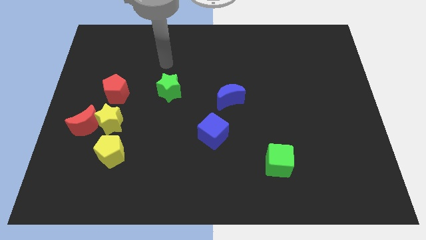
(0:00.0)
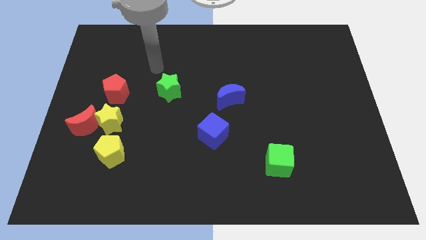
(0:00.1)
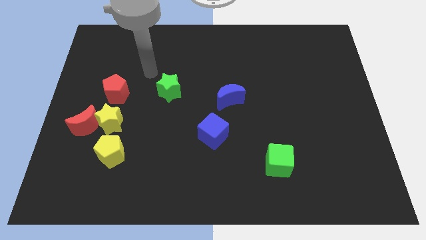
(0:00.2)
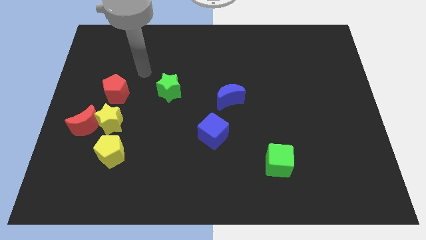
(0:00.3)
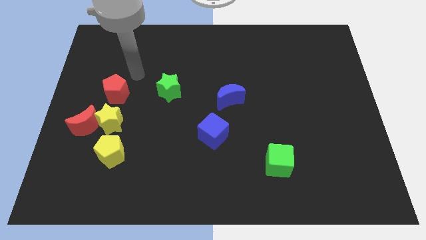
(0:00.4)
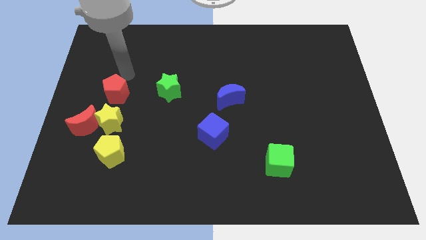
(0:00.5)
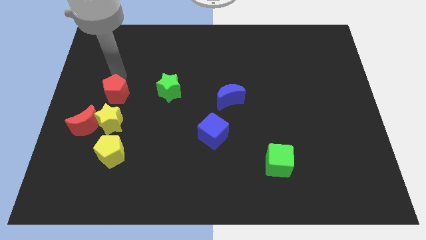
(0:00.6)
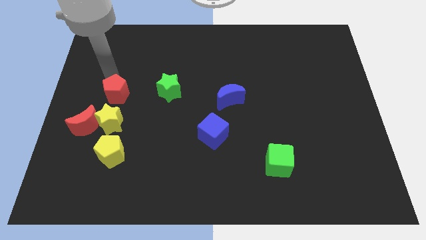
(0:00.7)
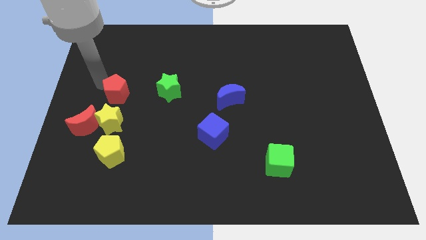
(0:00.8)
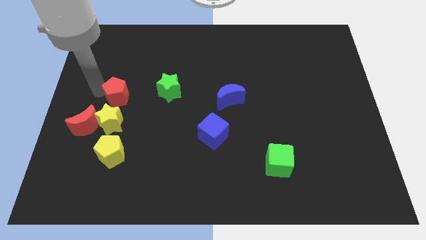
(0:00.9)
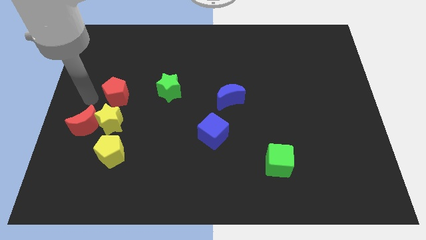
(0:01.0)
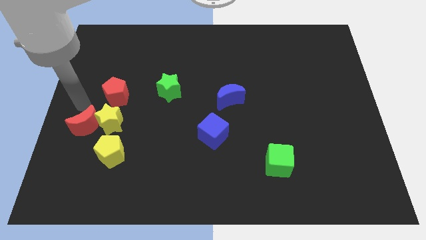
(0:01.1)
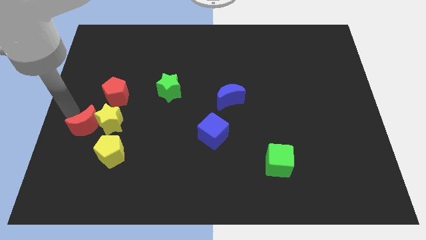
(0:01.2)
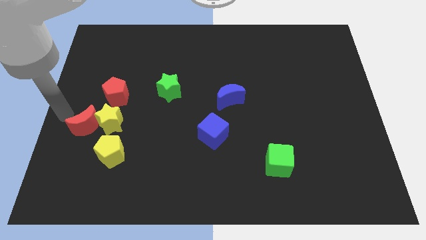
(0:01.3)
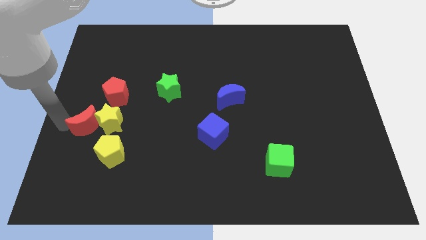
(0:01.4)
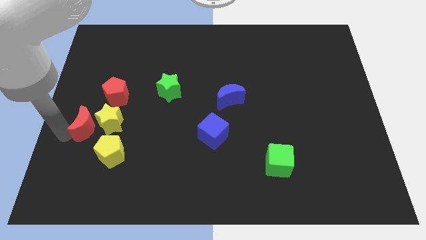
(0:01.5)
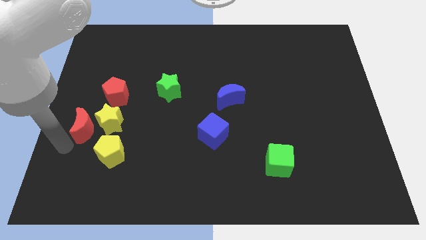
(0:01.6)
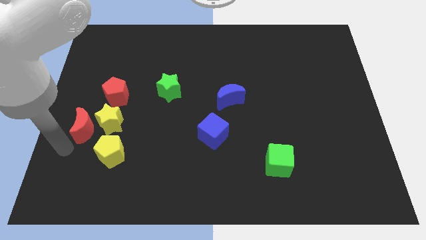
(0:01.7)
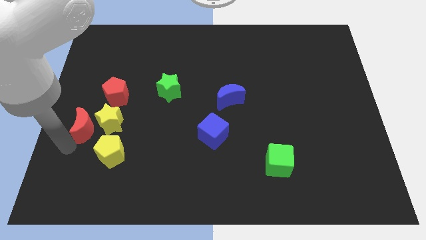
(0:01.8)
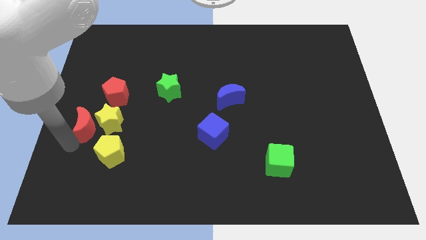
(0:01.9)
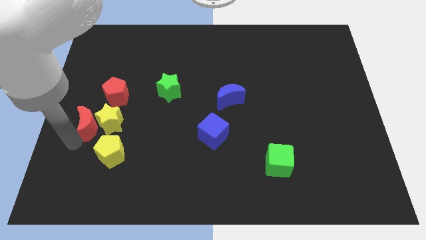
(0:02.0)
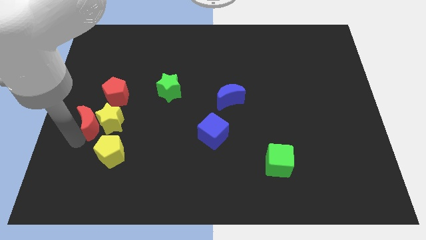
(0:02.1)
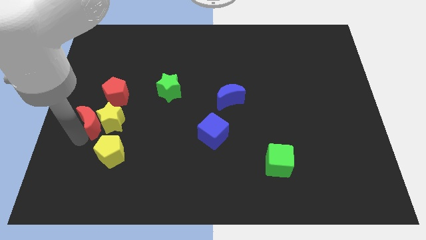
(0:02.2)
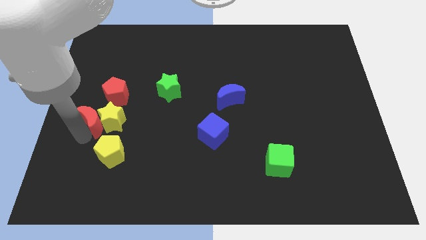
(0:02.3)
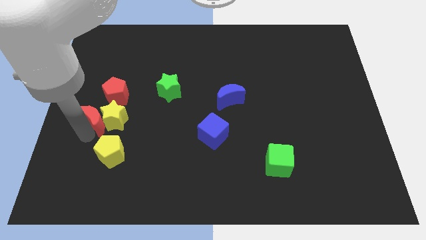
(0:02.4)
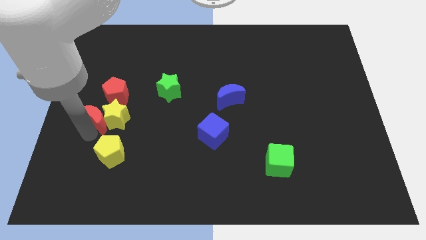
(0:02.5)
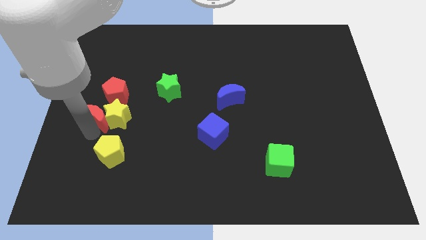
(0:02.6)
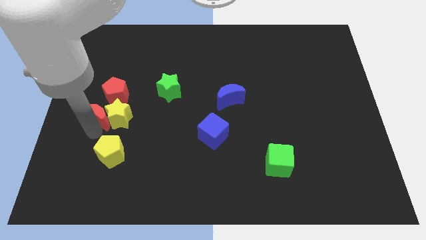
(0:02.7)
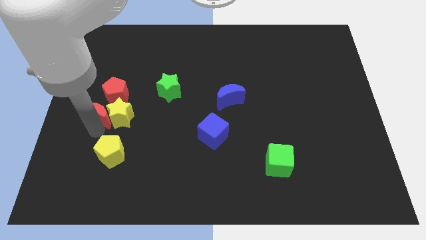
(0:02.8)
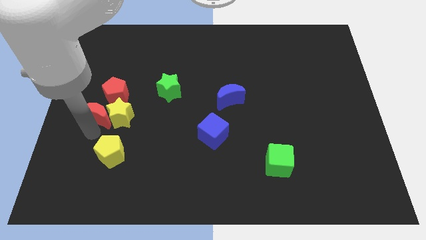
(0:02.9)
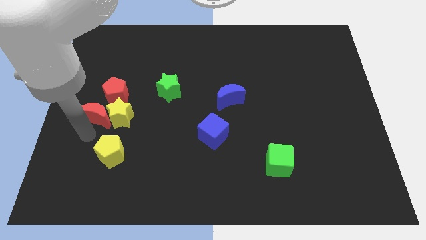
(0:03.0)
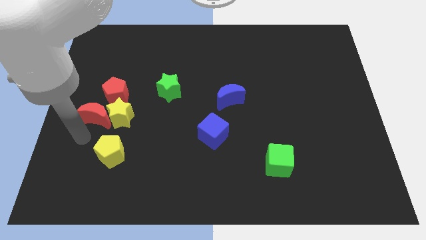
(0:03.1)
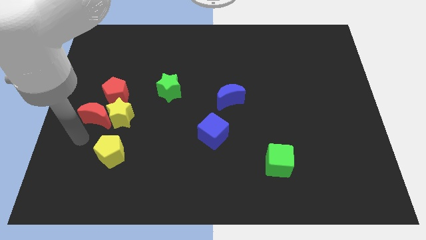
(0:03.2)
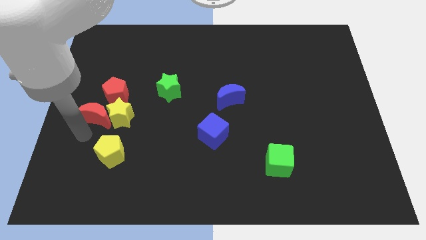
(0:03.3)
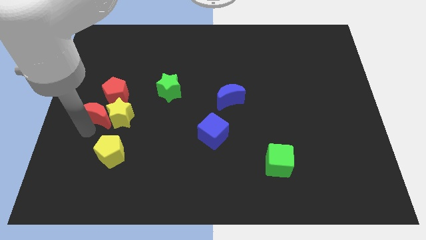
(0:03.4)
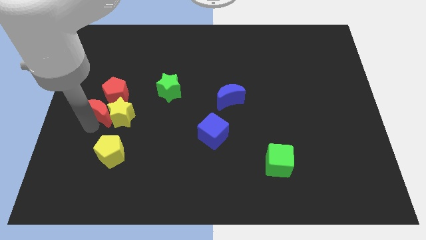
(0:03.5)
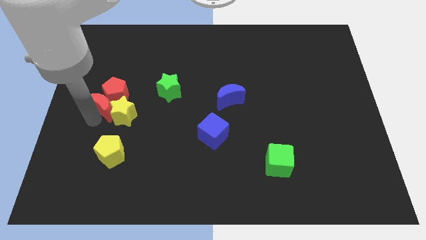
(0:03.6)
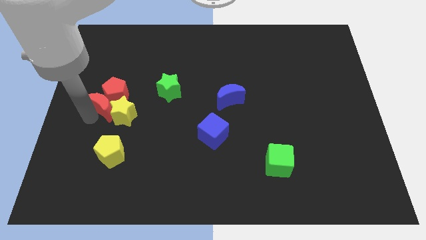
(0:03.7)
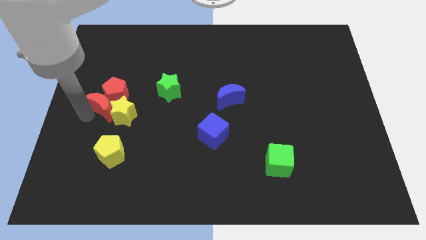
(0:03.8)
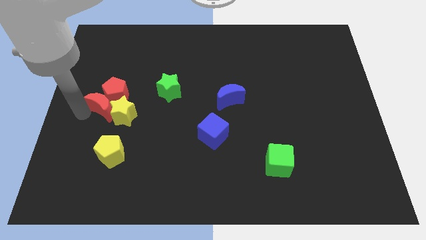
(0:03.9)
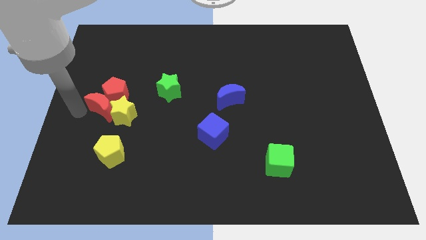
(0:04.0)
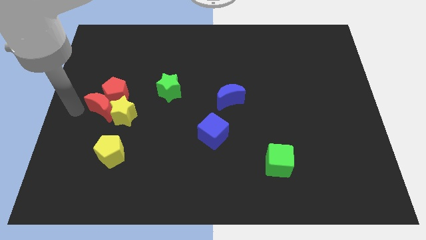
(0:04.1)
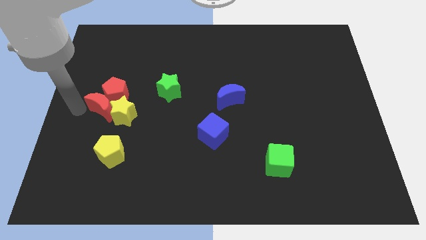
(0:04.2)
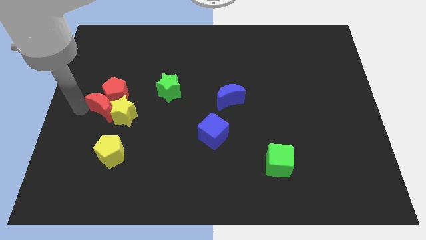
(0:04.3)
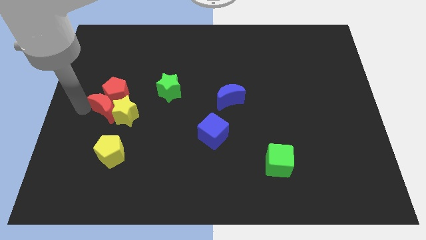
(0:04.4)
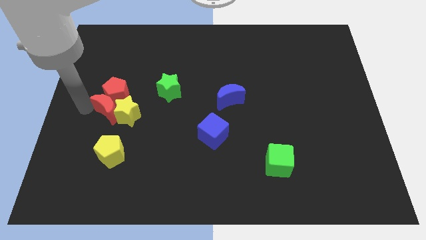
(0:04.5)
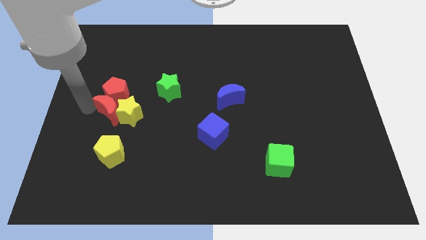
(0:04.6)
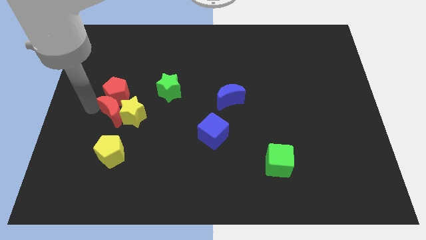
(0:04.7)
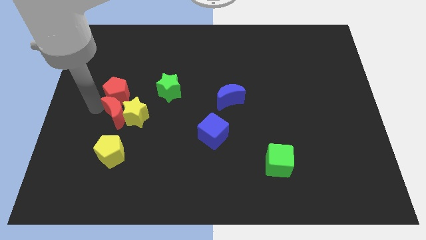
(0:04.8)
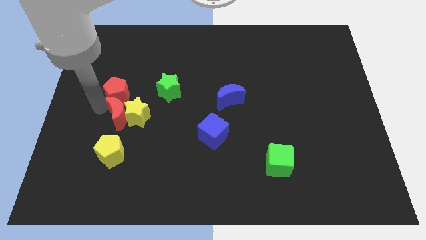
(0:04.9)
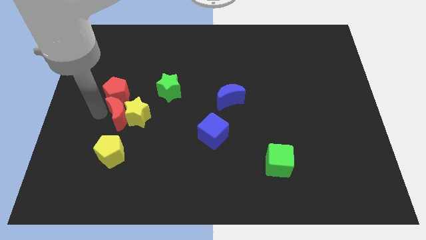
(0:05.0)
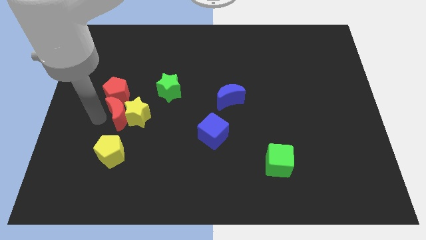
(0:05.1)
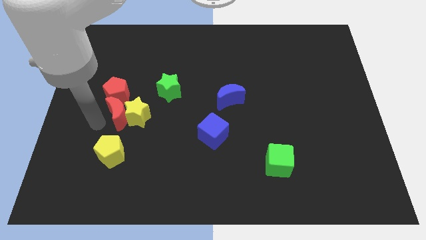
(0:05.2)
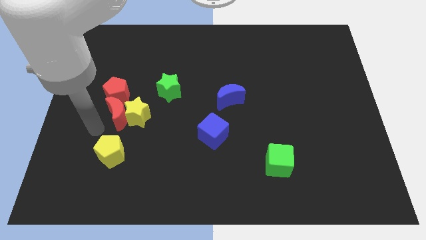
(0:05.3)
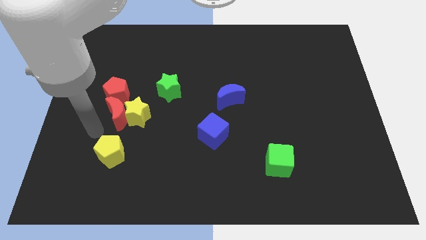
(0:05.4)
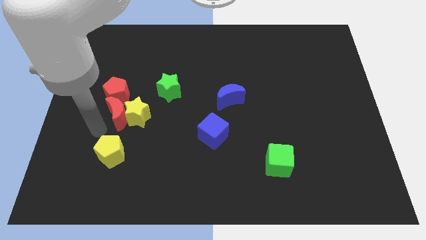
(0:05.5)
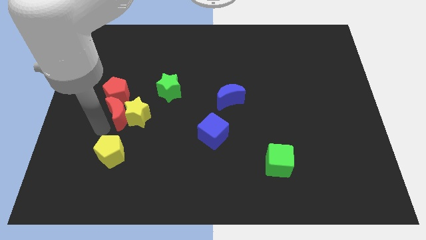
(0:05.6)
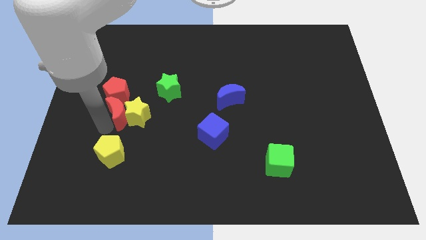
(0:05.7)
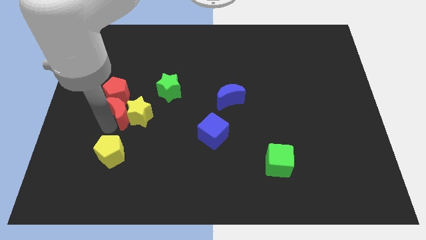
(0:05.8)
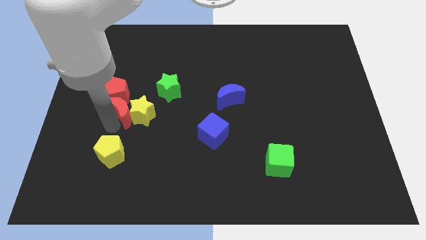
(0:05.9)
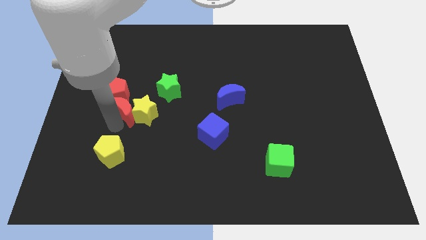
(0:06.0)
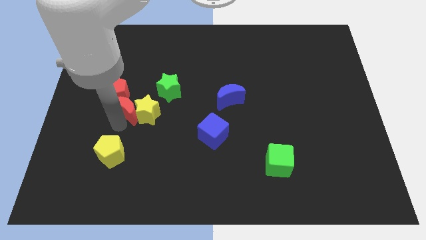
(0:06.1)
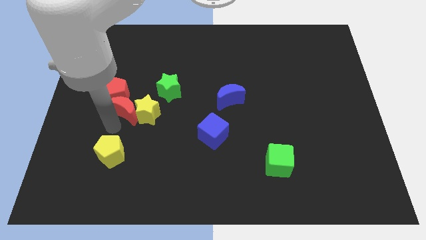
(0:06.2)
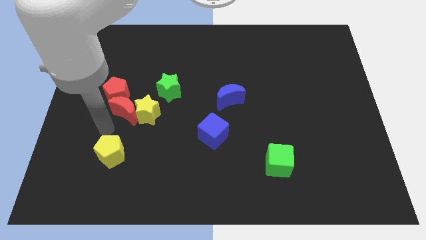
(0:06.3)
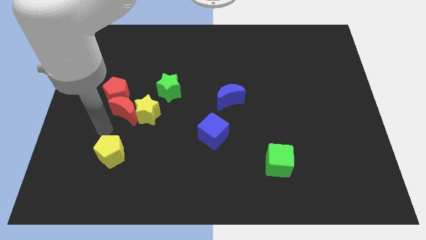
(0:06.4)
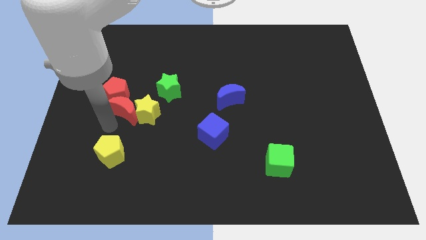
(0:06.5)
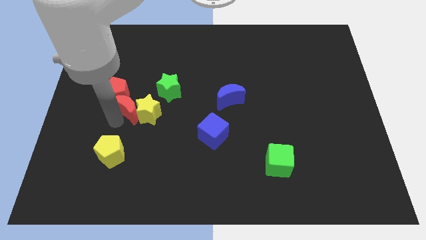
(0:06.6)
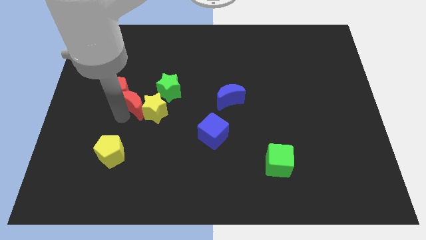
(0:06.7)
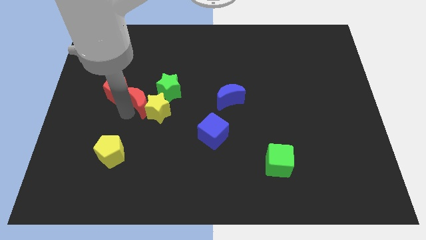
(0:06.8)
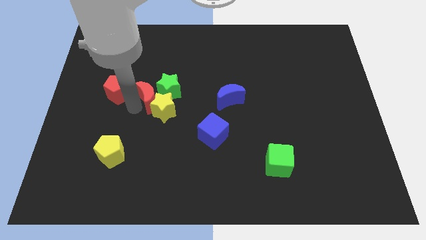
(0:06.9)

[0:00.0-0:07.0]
slide the red moon close to the green star

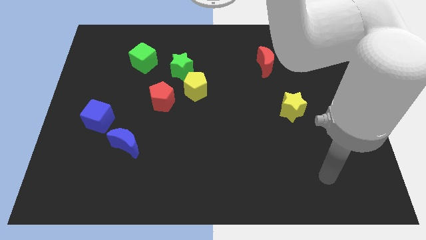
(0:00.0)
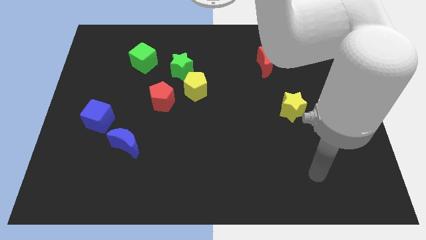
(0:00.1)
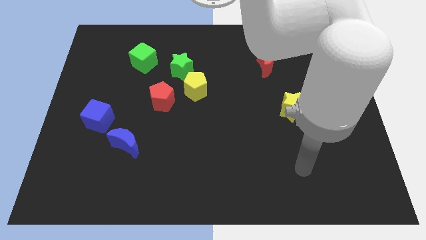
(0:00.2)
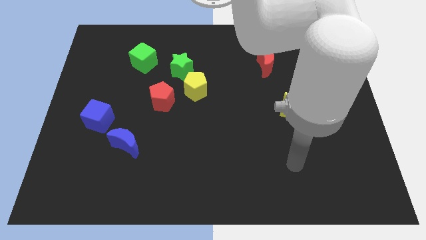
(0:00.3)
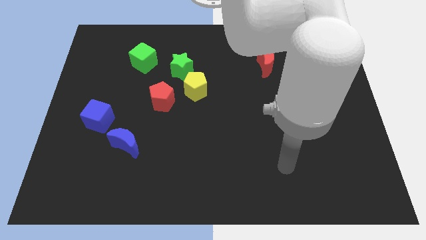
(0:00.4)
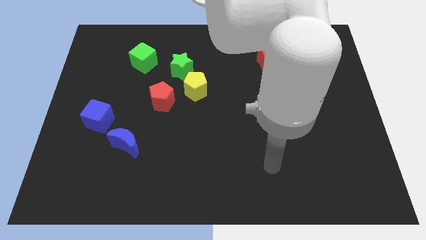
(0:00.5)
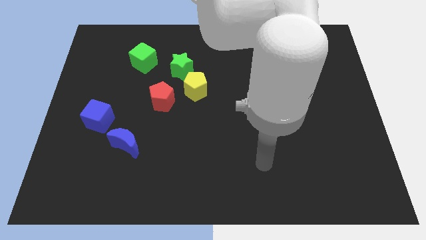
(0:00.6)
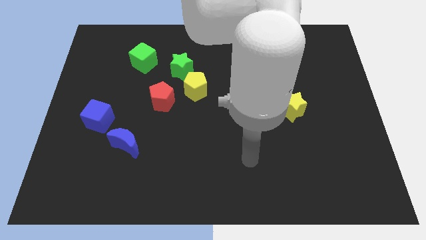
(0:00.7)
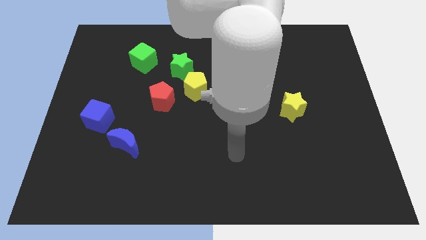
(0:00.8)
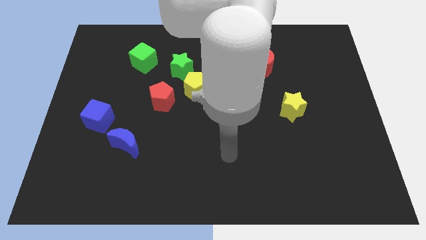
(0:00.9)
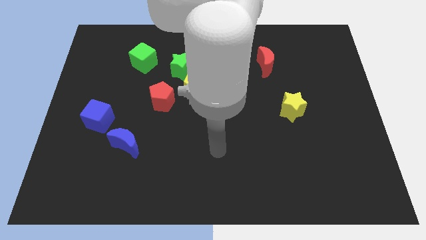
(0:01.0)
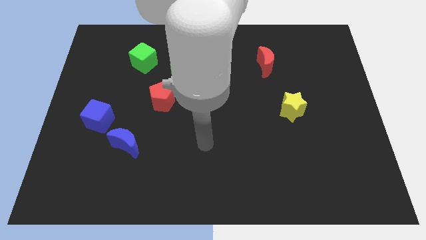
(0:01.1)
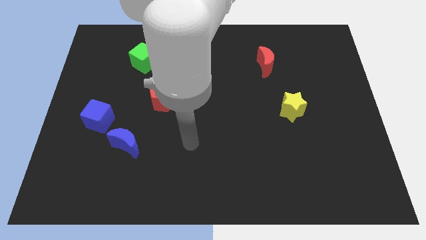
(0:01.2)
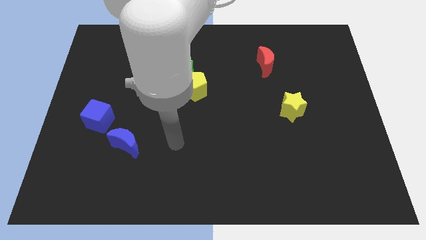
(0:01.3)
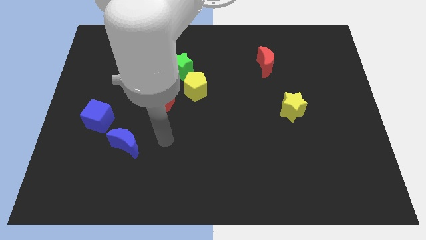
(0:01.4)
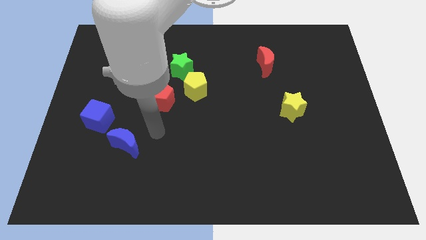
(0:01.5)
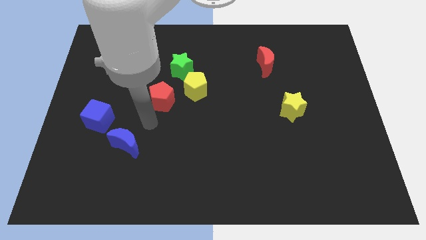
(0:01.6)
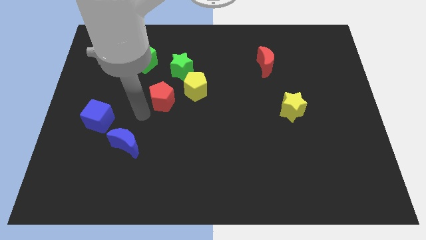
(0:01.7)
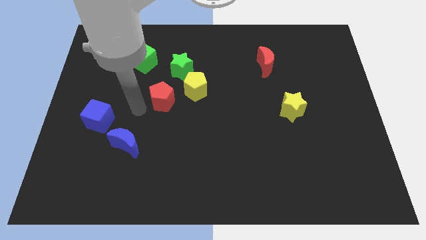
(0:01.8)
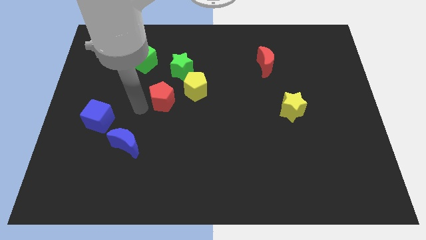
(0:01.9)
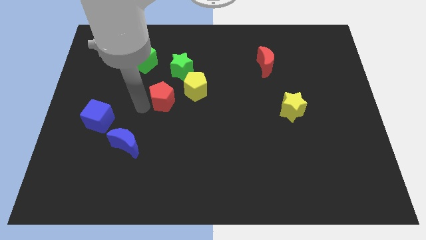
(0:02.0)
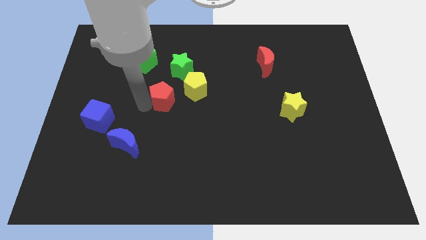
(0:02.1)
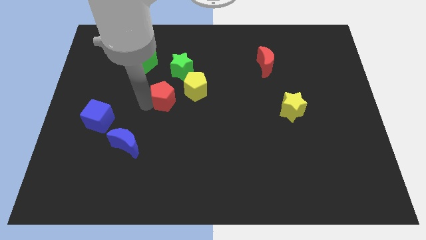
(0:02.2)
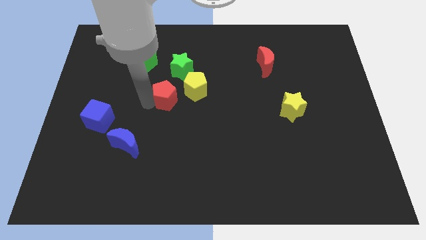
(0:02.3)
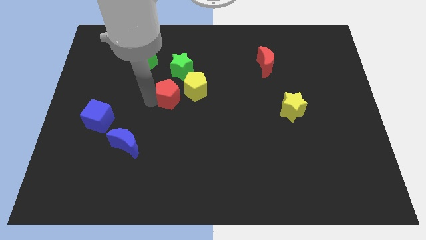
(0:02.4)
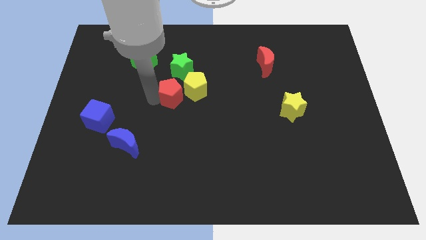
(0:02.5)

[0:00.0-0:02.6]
put the red pentagon to the yellow pentagon
